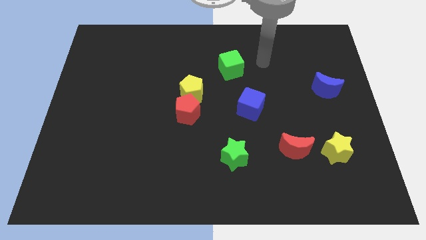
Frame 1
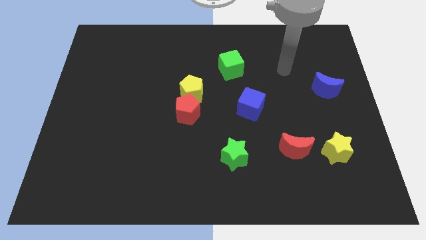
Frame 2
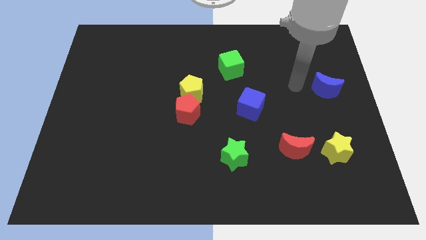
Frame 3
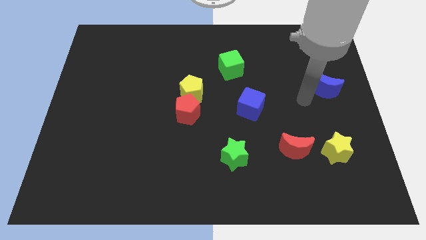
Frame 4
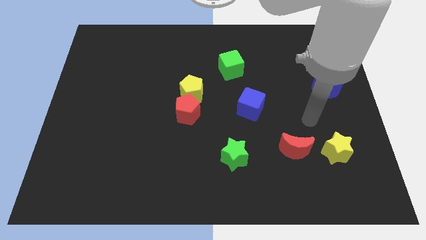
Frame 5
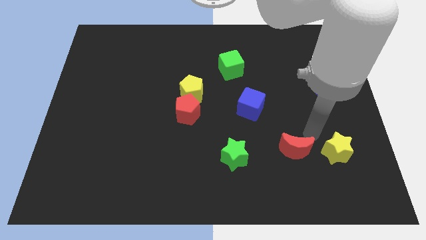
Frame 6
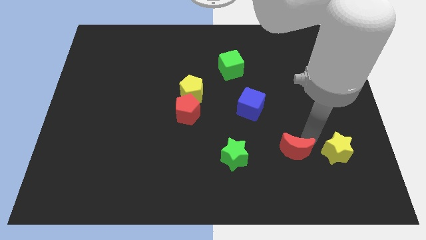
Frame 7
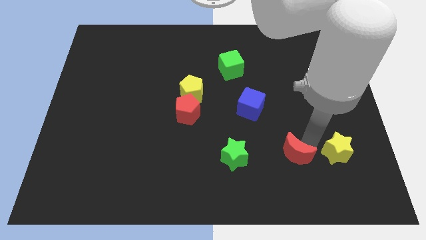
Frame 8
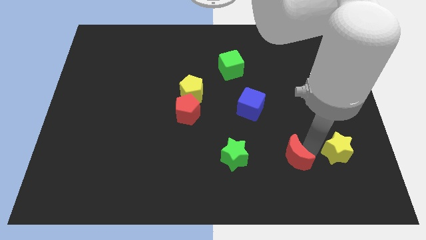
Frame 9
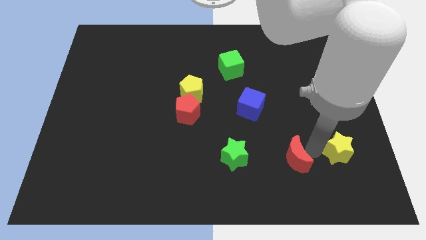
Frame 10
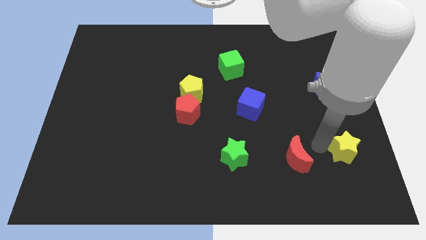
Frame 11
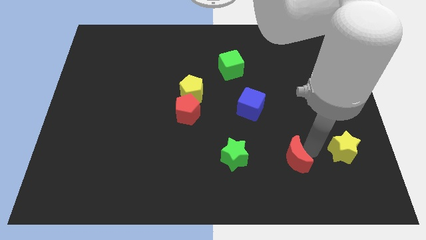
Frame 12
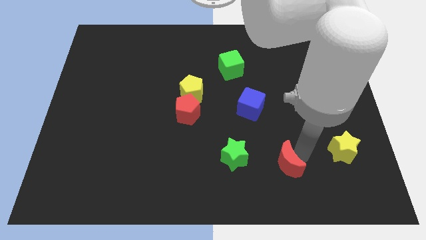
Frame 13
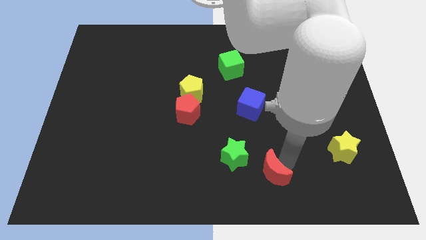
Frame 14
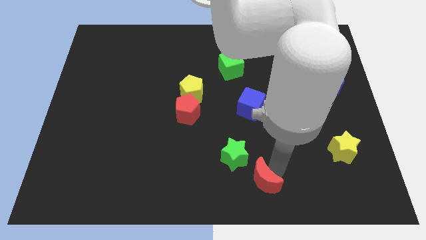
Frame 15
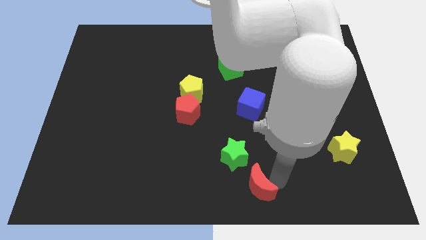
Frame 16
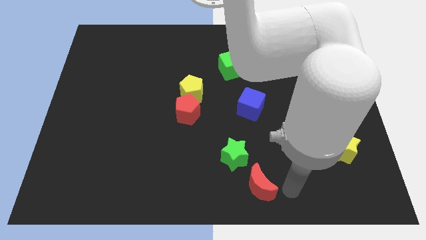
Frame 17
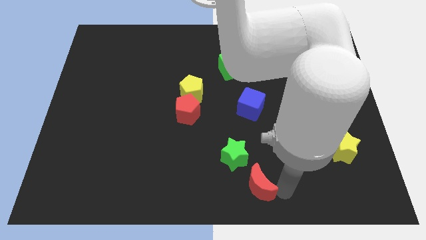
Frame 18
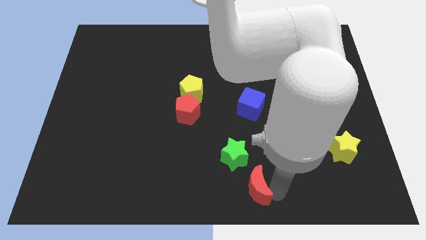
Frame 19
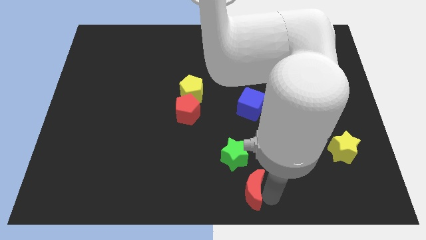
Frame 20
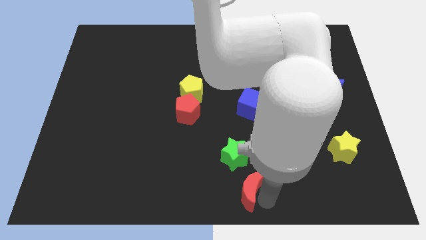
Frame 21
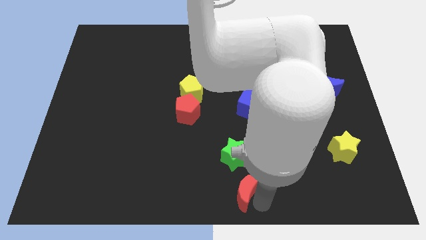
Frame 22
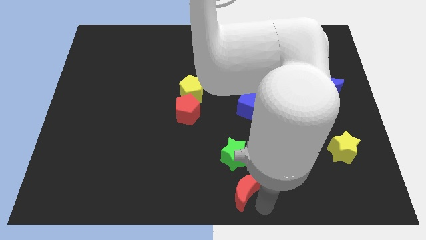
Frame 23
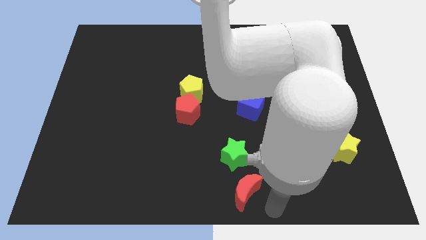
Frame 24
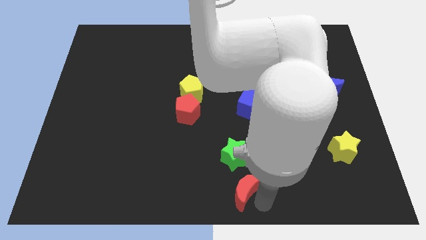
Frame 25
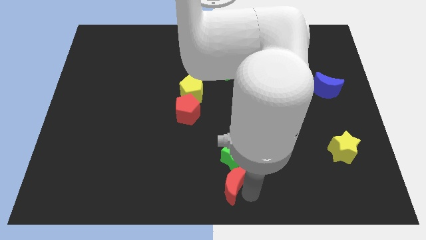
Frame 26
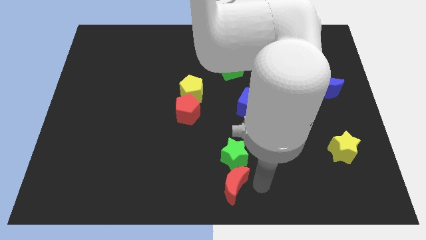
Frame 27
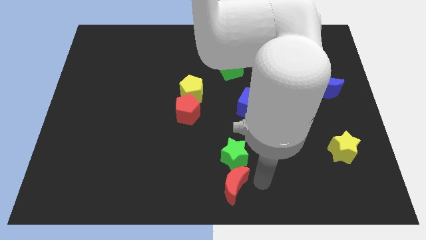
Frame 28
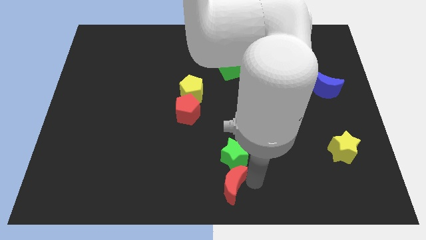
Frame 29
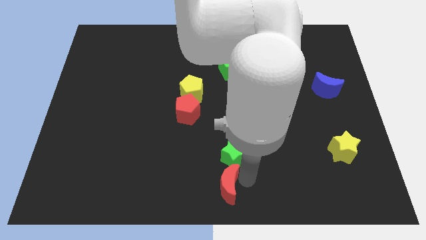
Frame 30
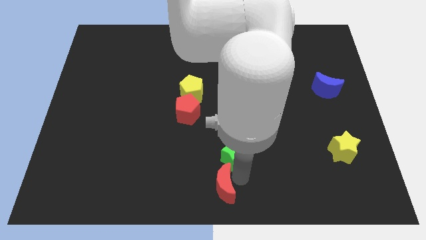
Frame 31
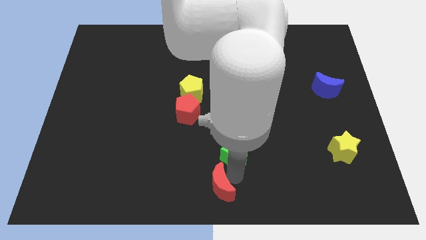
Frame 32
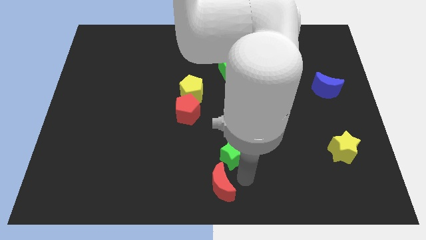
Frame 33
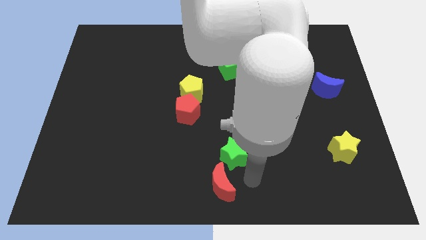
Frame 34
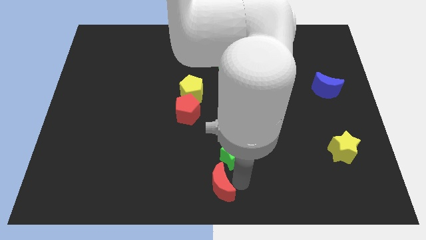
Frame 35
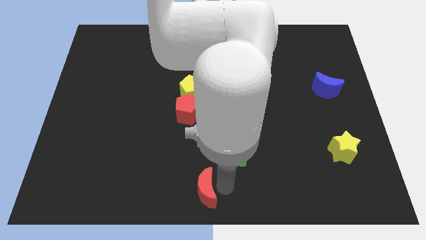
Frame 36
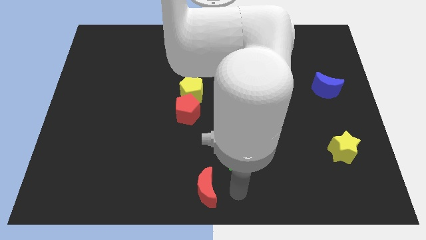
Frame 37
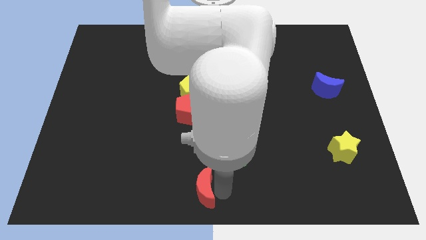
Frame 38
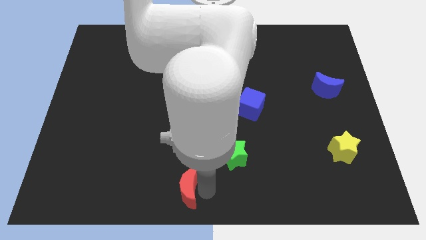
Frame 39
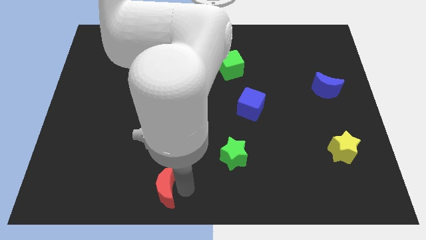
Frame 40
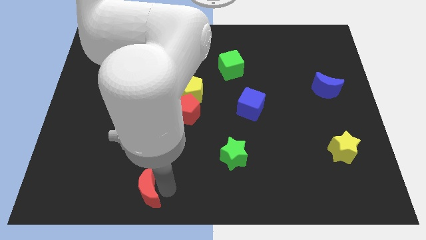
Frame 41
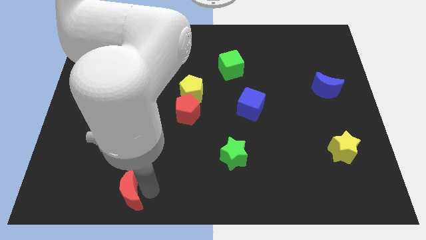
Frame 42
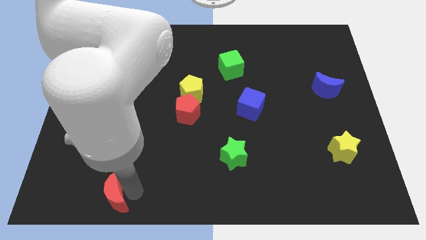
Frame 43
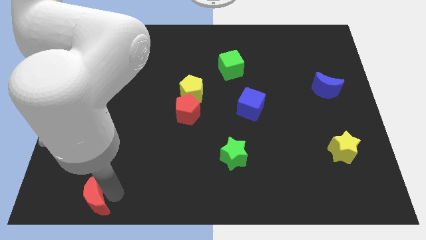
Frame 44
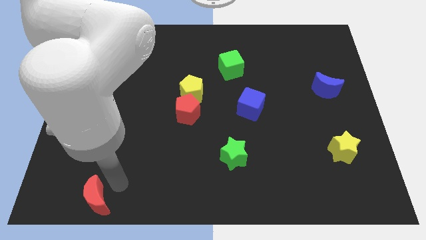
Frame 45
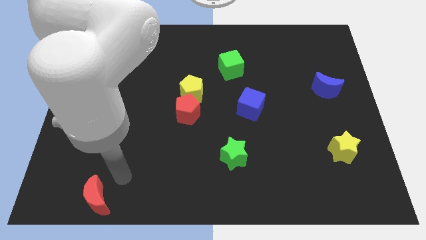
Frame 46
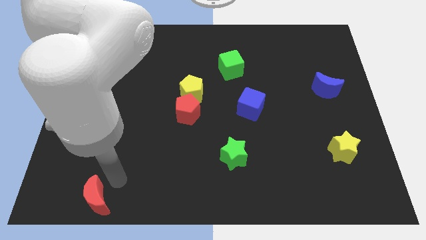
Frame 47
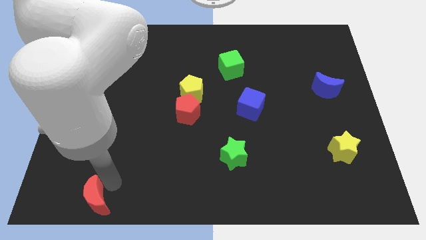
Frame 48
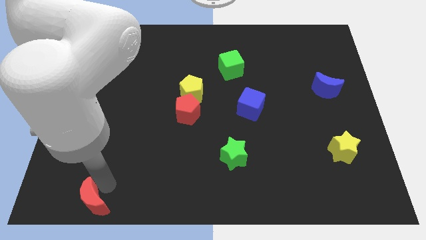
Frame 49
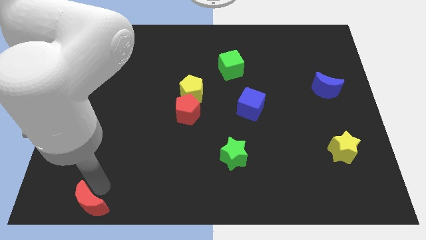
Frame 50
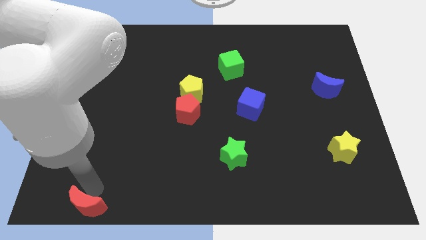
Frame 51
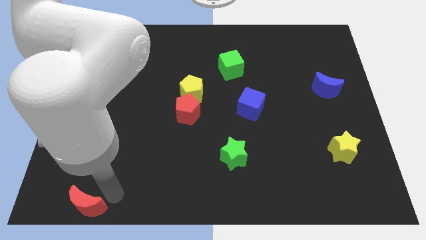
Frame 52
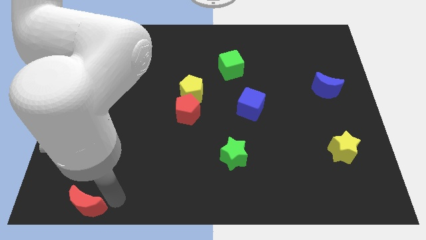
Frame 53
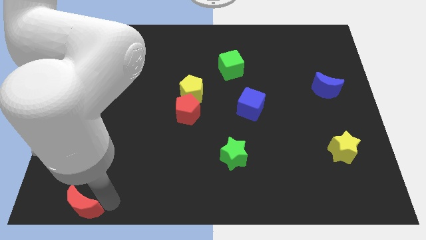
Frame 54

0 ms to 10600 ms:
move the red moon to the bottom left corner

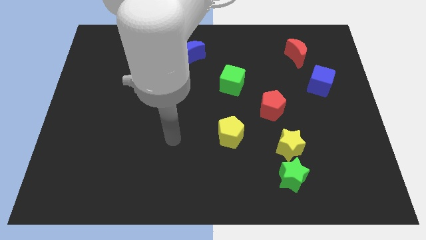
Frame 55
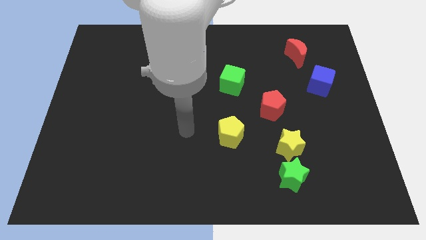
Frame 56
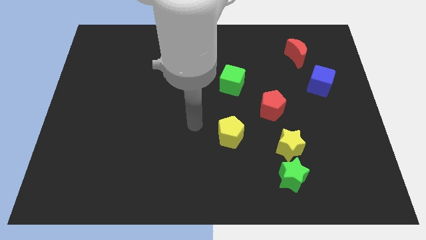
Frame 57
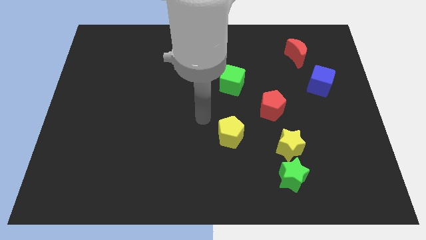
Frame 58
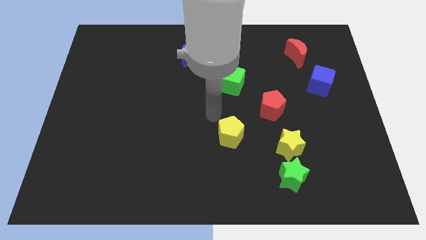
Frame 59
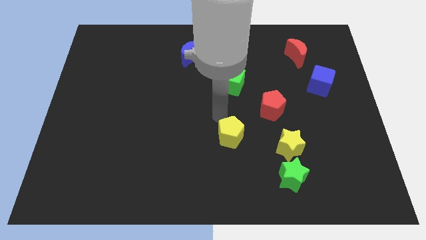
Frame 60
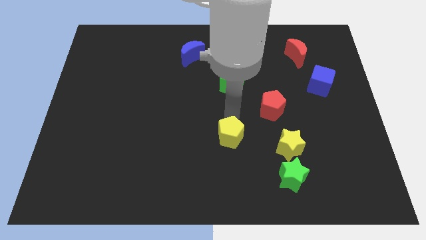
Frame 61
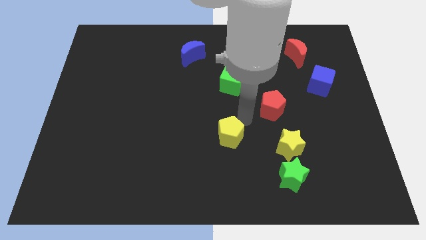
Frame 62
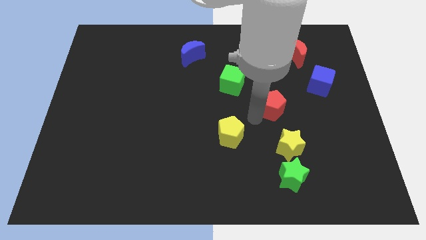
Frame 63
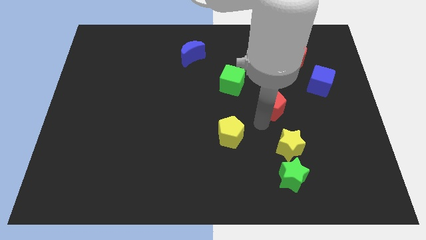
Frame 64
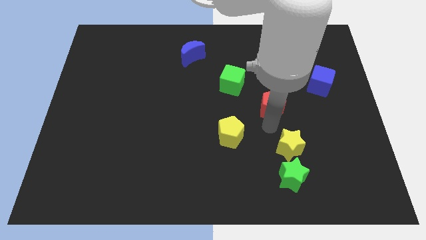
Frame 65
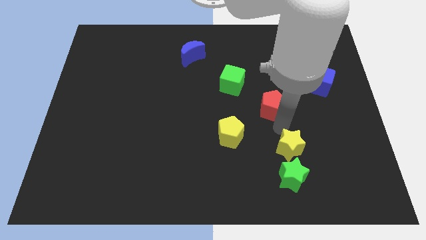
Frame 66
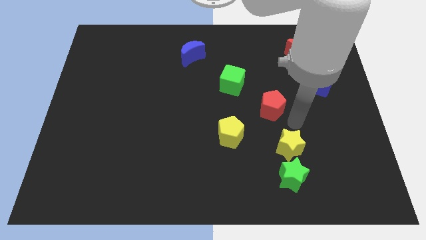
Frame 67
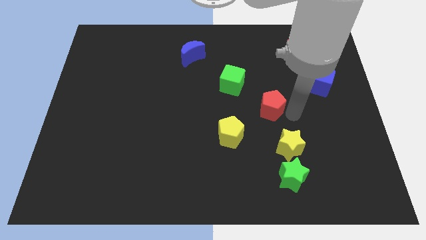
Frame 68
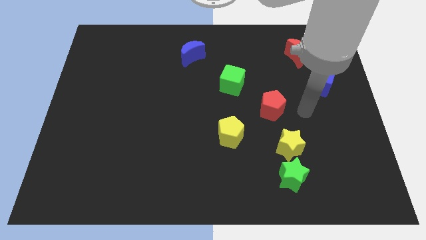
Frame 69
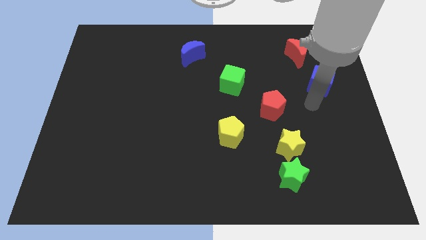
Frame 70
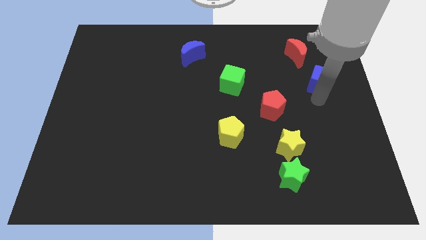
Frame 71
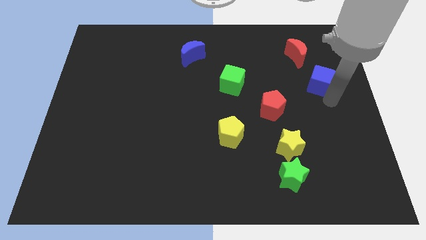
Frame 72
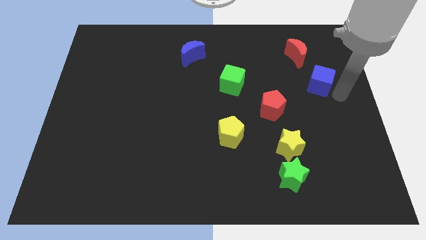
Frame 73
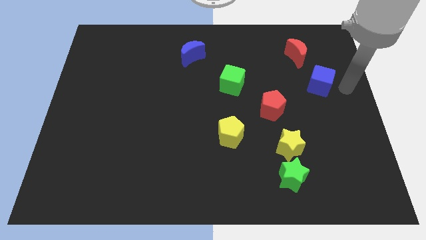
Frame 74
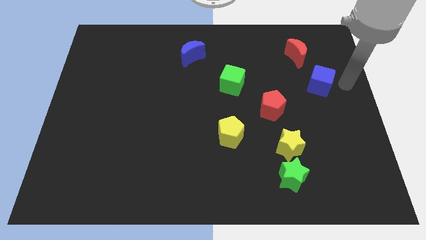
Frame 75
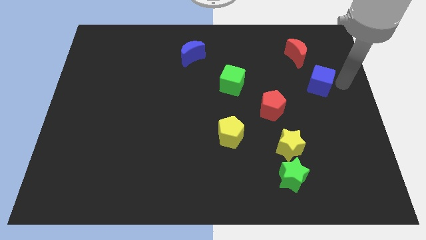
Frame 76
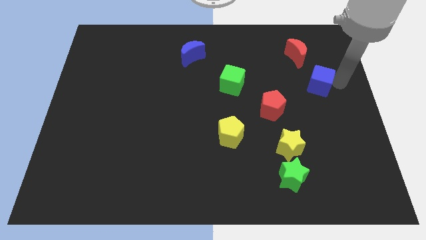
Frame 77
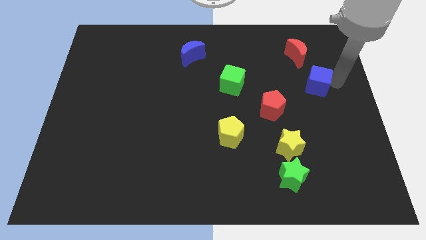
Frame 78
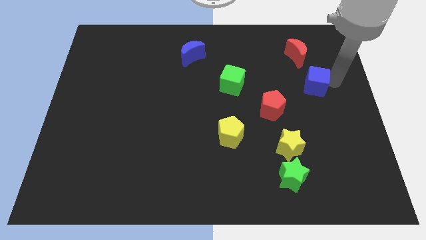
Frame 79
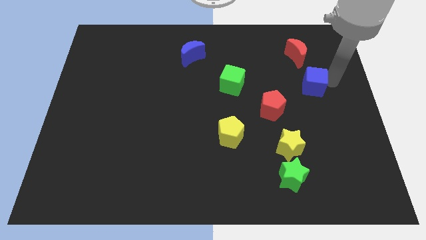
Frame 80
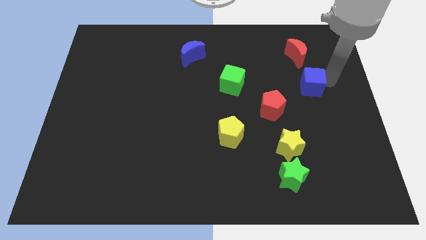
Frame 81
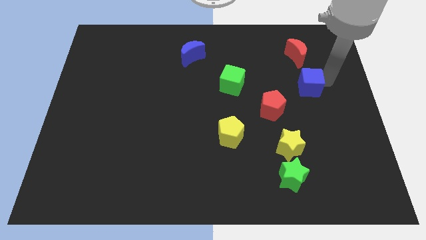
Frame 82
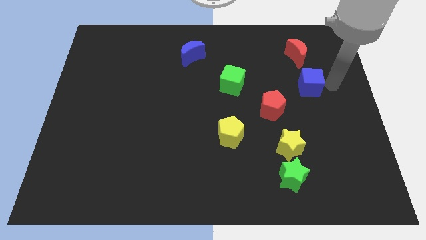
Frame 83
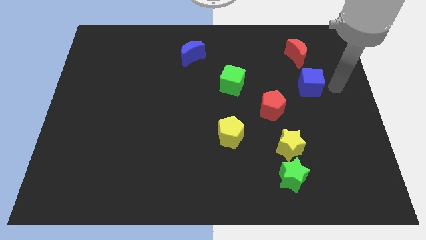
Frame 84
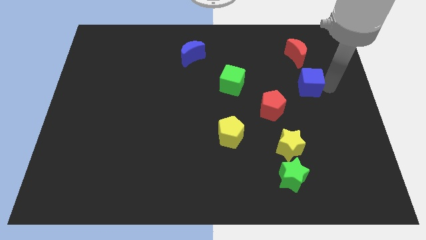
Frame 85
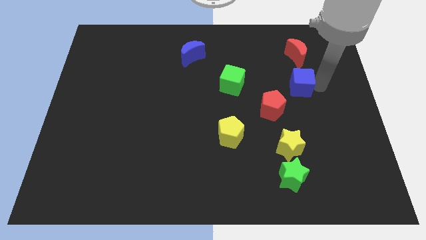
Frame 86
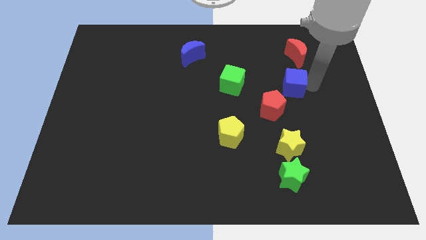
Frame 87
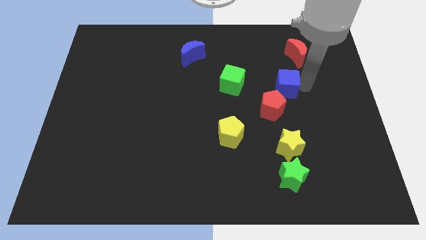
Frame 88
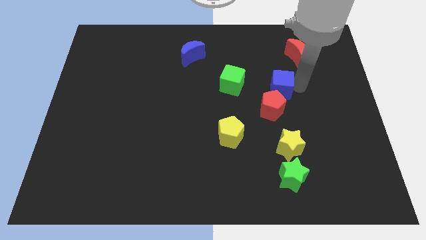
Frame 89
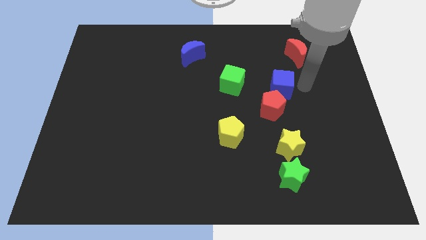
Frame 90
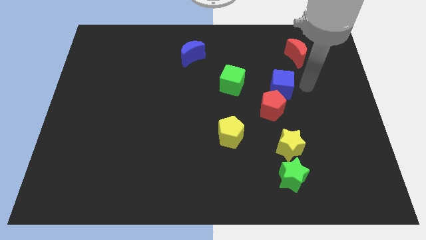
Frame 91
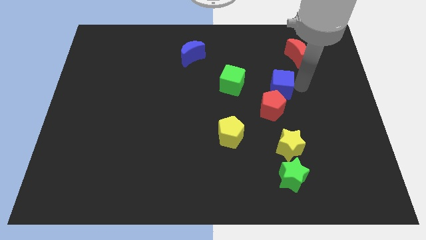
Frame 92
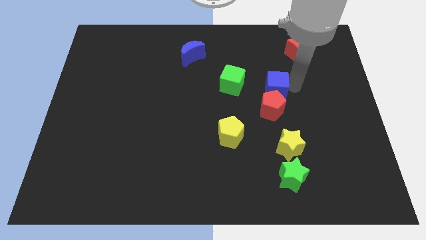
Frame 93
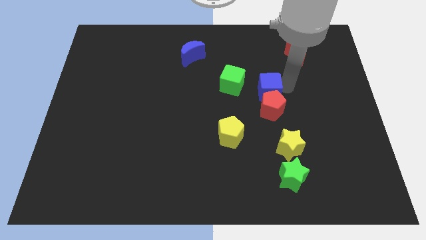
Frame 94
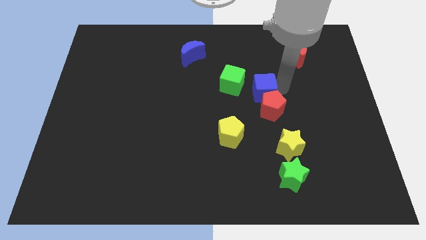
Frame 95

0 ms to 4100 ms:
move the blue cube to the center
